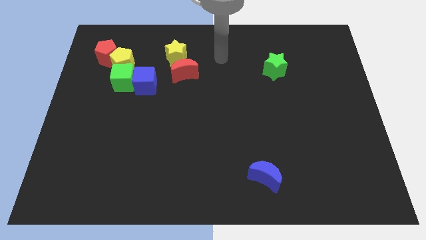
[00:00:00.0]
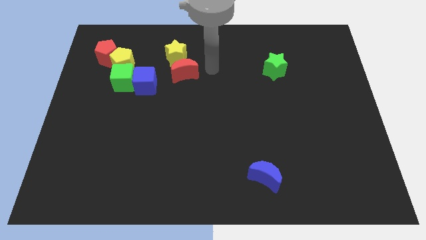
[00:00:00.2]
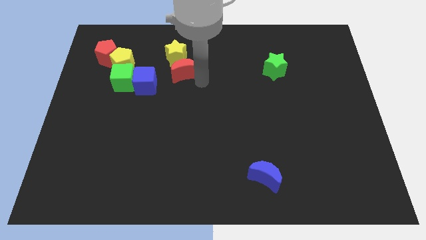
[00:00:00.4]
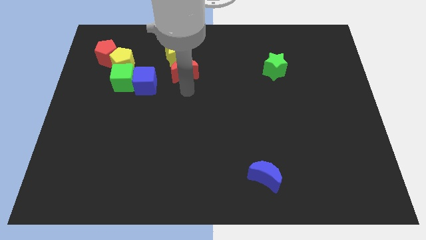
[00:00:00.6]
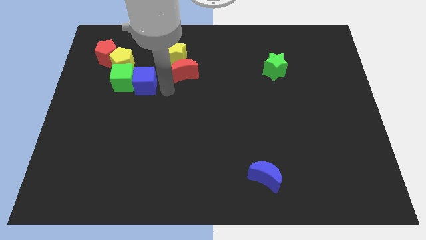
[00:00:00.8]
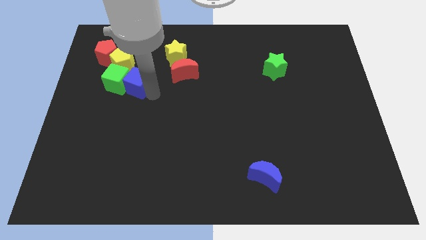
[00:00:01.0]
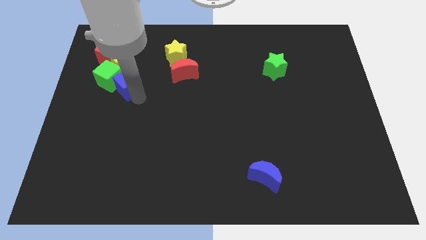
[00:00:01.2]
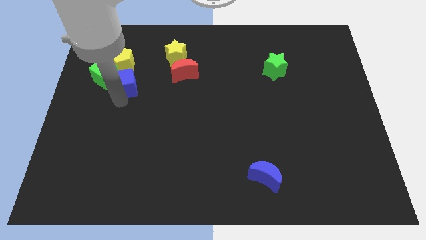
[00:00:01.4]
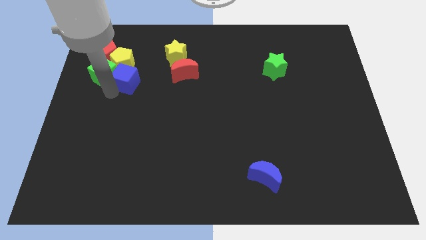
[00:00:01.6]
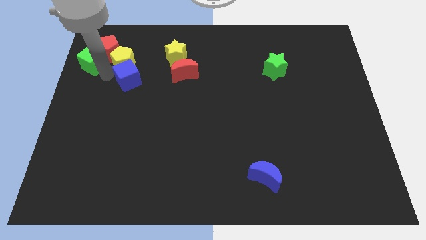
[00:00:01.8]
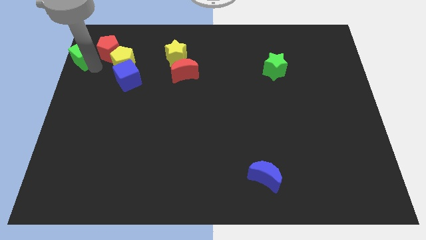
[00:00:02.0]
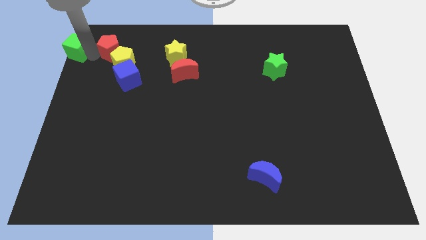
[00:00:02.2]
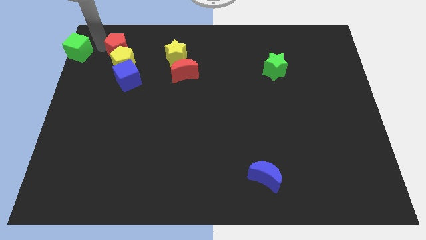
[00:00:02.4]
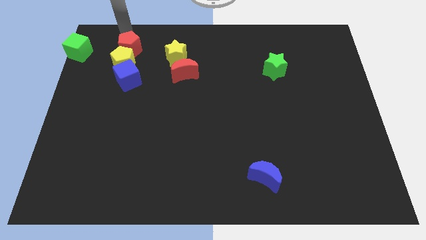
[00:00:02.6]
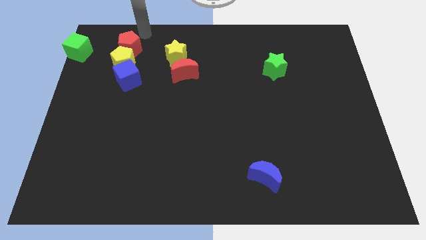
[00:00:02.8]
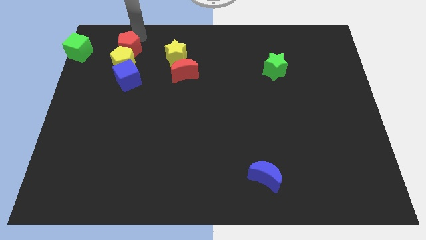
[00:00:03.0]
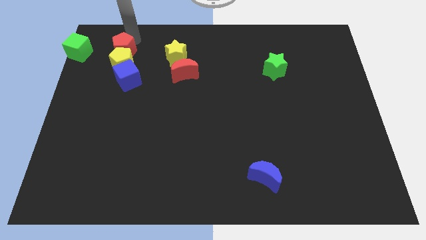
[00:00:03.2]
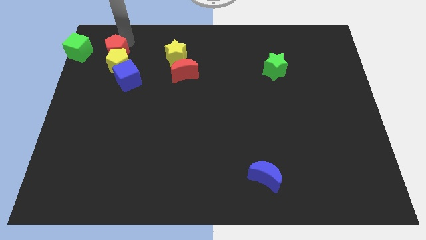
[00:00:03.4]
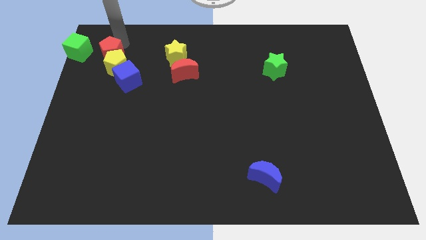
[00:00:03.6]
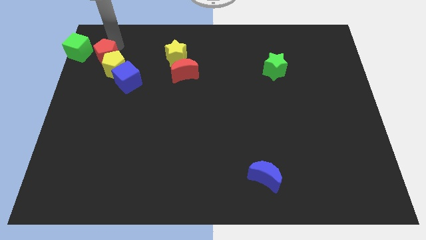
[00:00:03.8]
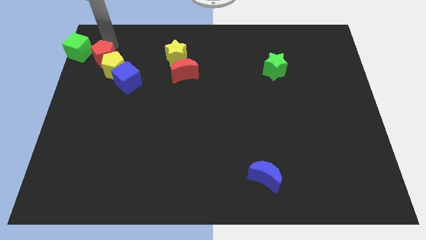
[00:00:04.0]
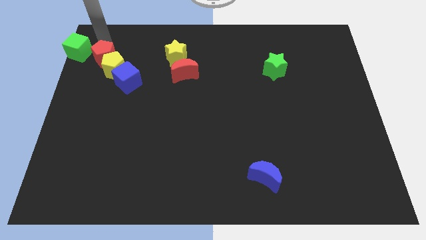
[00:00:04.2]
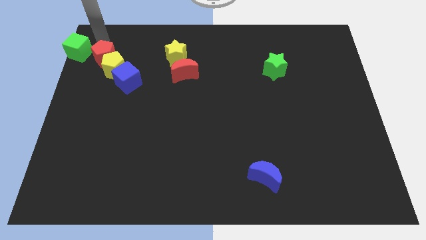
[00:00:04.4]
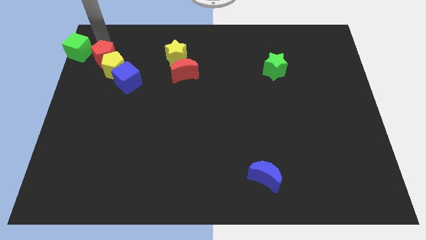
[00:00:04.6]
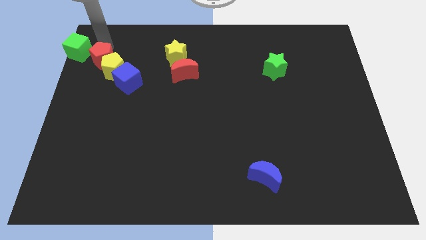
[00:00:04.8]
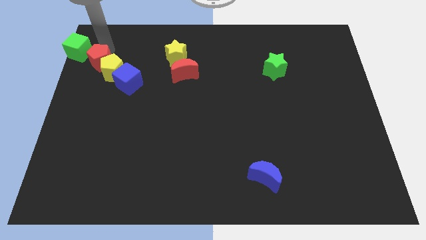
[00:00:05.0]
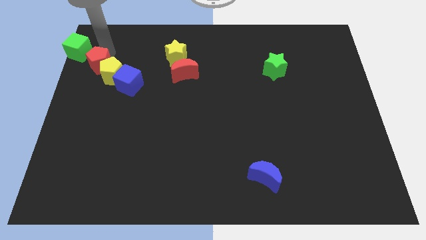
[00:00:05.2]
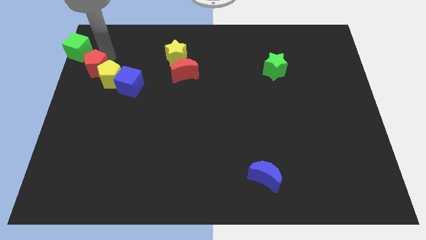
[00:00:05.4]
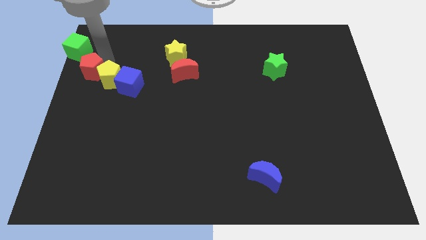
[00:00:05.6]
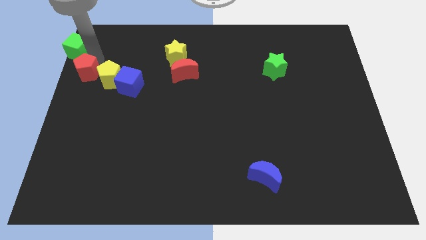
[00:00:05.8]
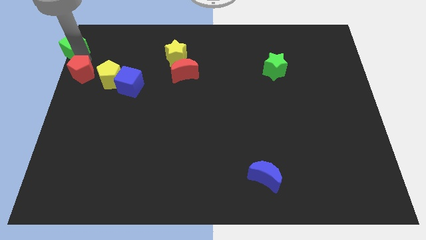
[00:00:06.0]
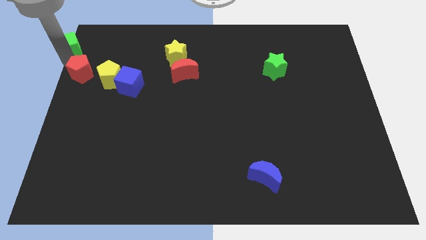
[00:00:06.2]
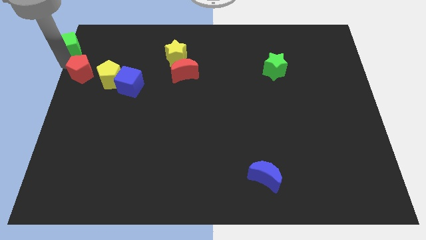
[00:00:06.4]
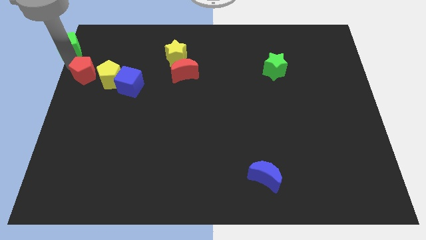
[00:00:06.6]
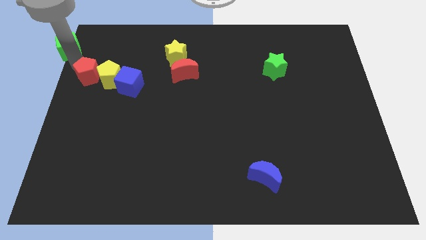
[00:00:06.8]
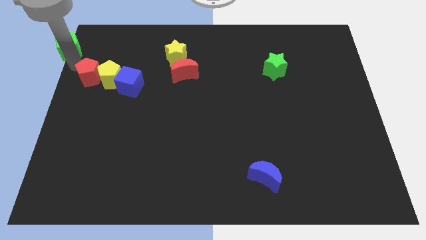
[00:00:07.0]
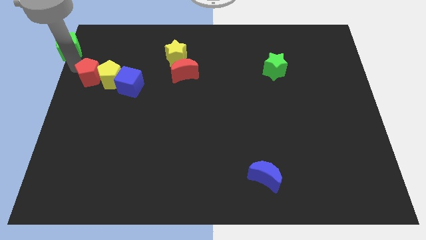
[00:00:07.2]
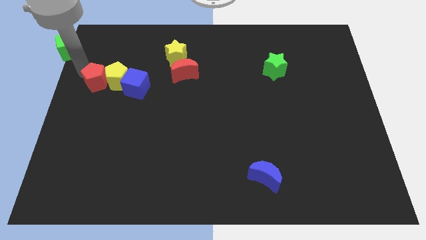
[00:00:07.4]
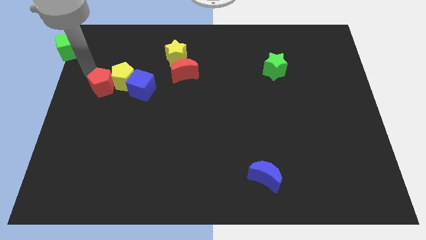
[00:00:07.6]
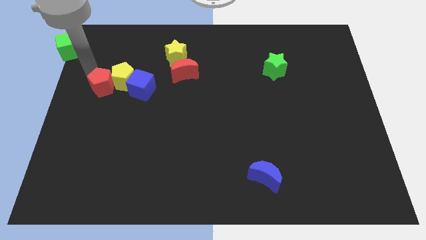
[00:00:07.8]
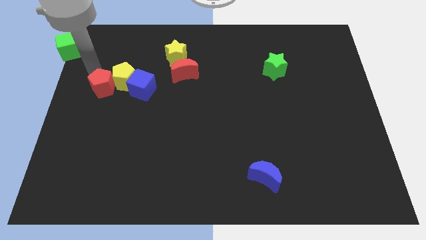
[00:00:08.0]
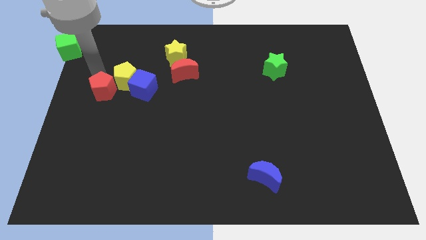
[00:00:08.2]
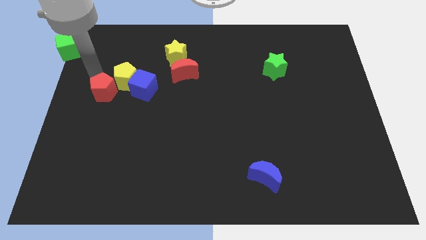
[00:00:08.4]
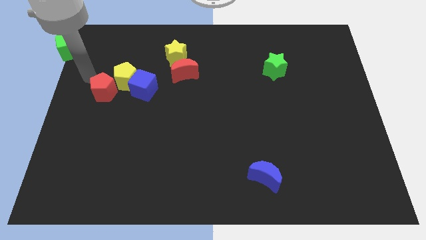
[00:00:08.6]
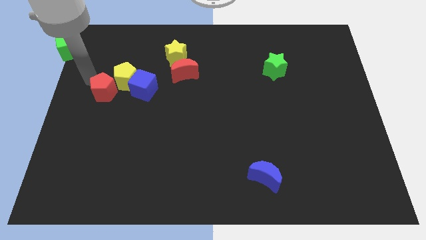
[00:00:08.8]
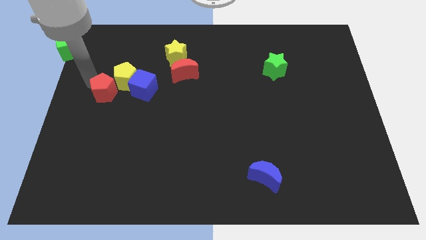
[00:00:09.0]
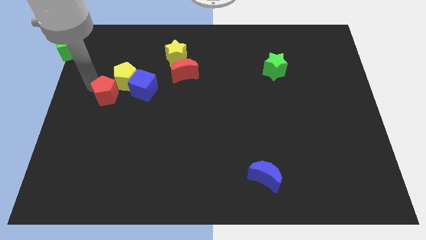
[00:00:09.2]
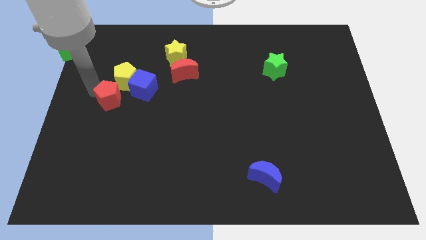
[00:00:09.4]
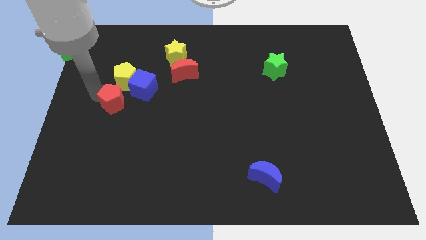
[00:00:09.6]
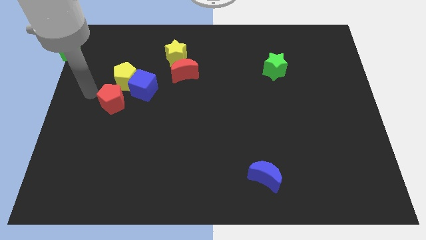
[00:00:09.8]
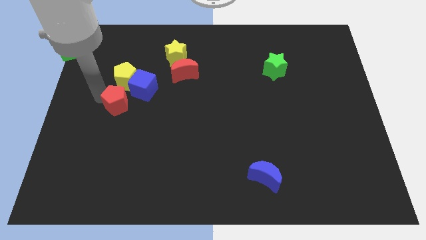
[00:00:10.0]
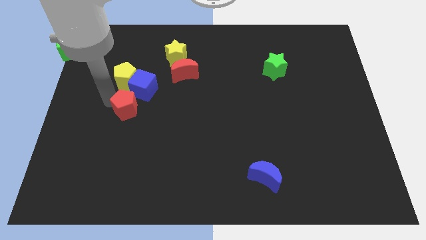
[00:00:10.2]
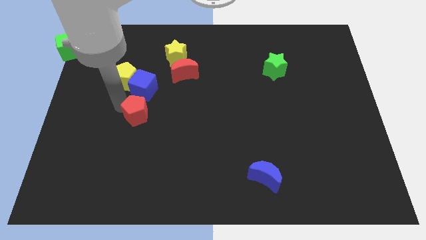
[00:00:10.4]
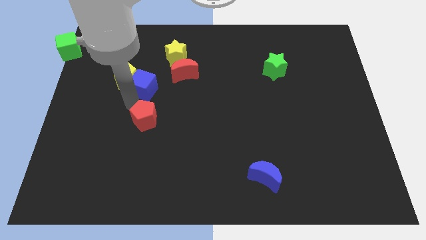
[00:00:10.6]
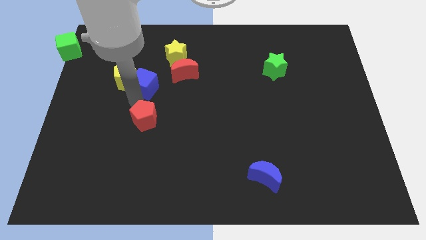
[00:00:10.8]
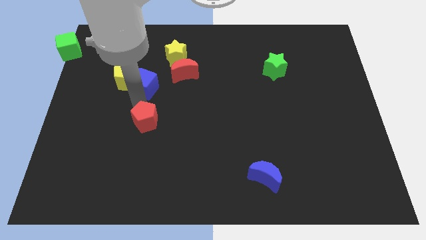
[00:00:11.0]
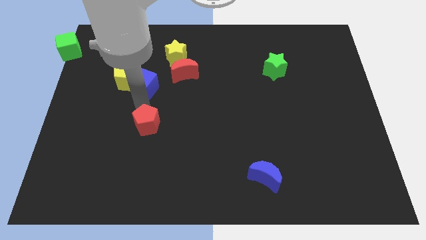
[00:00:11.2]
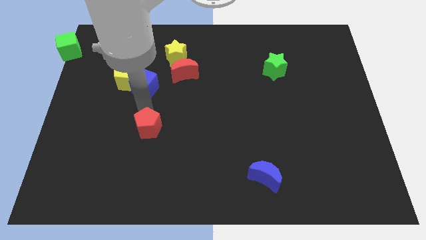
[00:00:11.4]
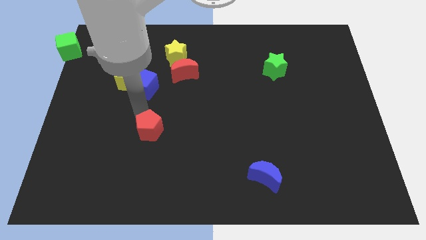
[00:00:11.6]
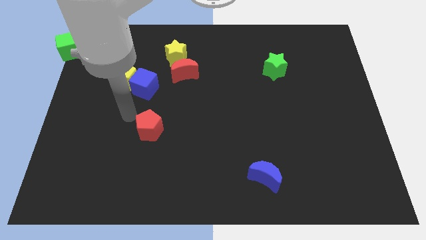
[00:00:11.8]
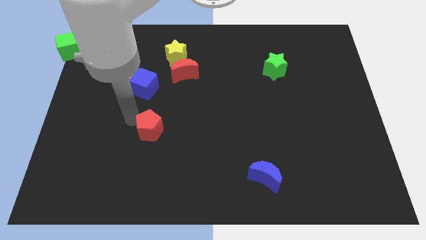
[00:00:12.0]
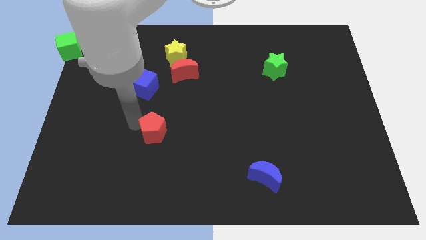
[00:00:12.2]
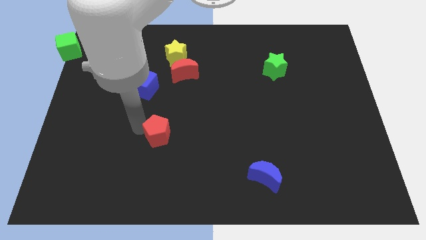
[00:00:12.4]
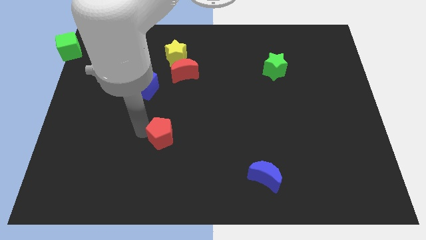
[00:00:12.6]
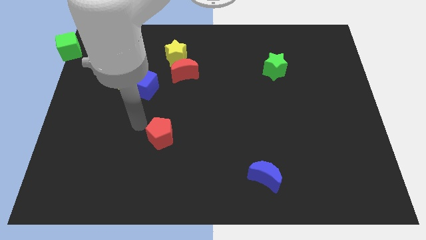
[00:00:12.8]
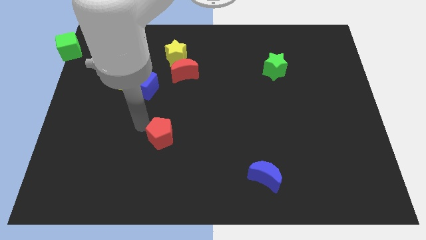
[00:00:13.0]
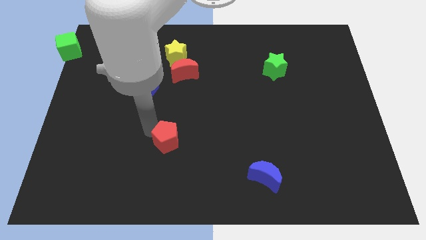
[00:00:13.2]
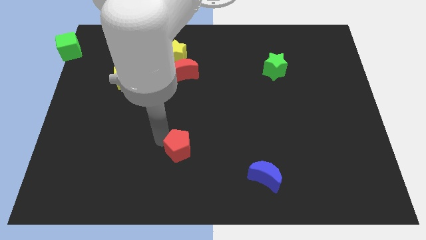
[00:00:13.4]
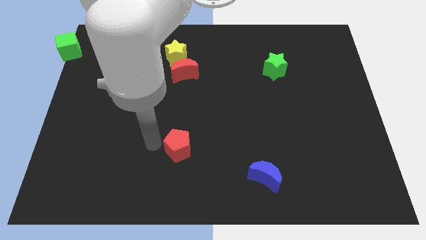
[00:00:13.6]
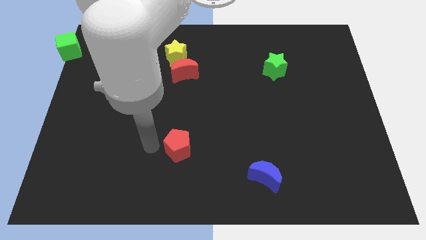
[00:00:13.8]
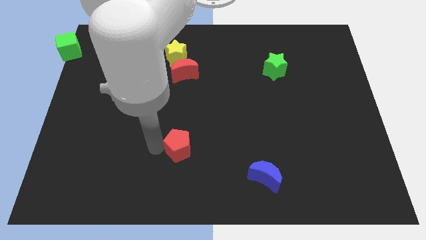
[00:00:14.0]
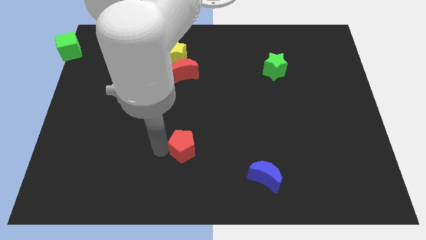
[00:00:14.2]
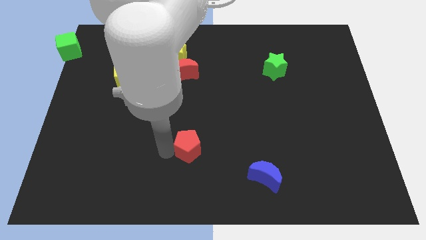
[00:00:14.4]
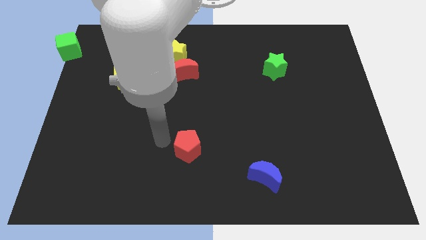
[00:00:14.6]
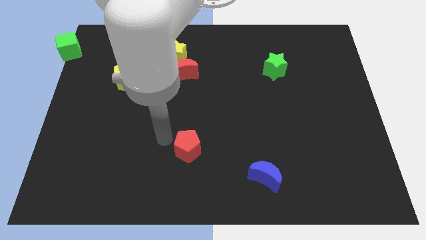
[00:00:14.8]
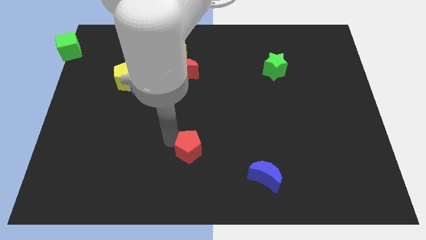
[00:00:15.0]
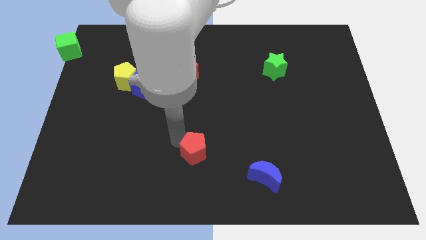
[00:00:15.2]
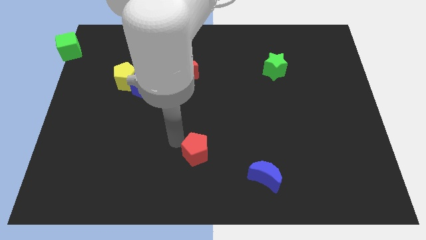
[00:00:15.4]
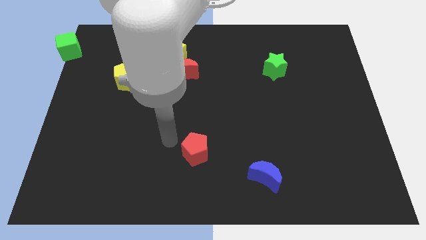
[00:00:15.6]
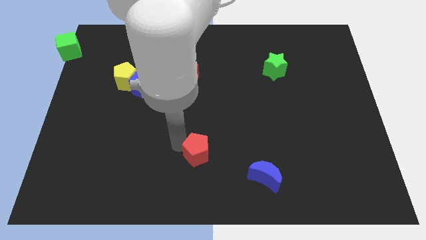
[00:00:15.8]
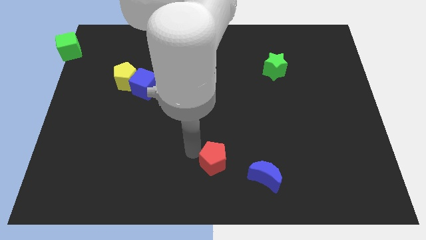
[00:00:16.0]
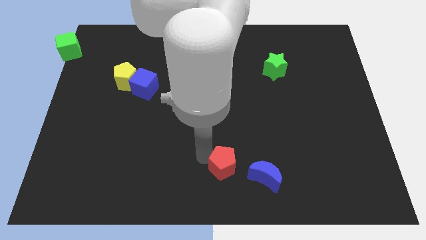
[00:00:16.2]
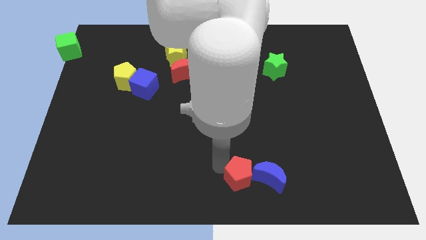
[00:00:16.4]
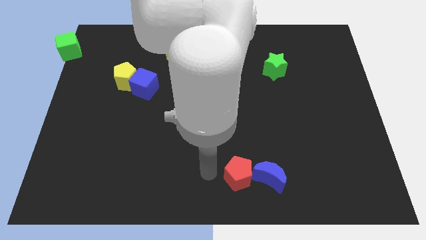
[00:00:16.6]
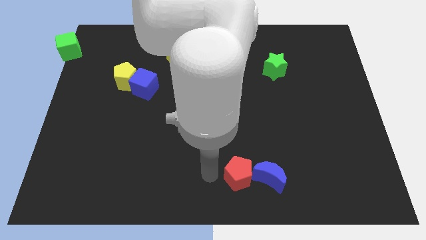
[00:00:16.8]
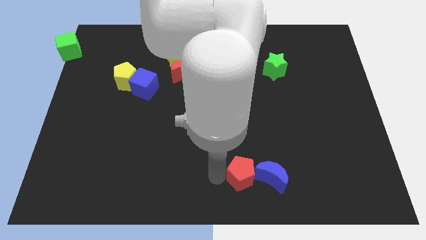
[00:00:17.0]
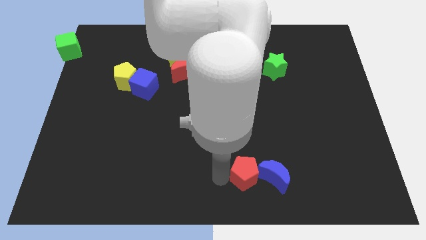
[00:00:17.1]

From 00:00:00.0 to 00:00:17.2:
push the red pentagon next to the blue moon
